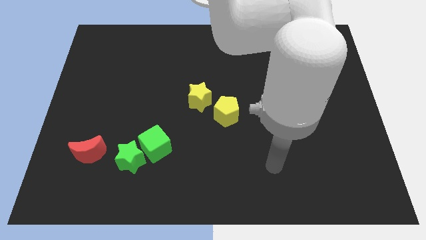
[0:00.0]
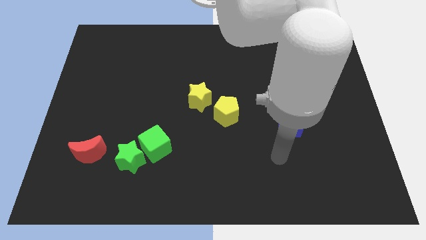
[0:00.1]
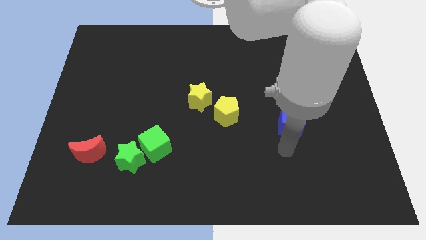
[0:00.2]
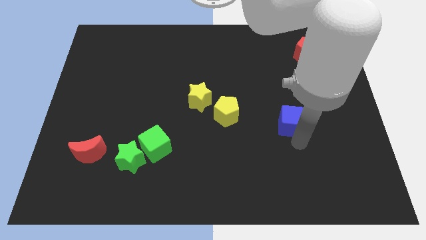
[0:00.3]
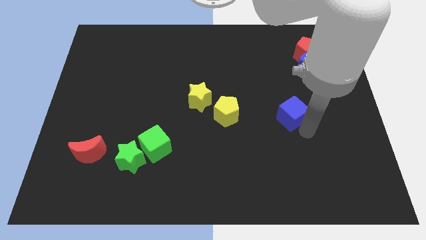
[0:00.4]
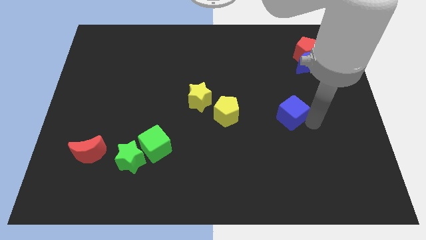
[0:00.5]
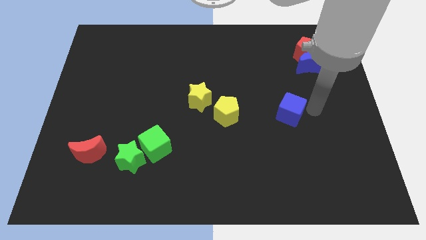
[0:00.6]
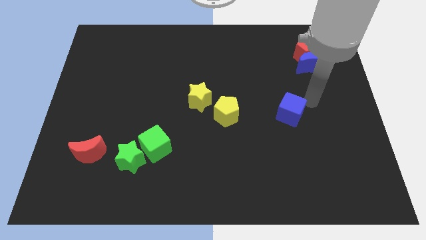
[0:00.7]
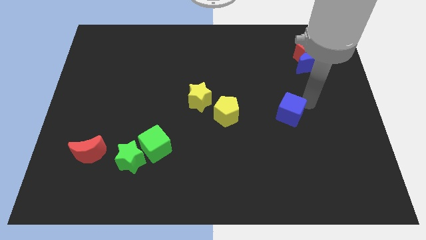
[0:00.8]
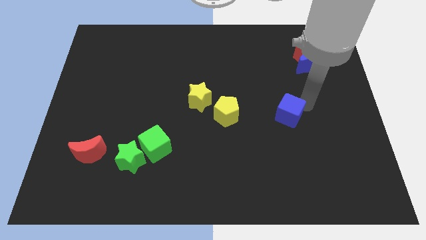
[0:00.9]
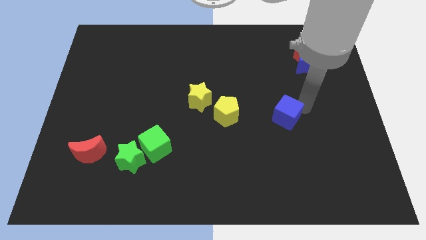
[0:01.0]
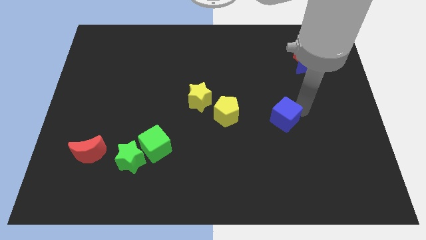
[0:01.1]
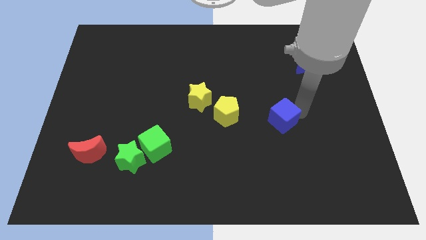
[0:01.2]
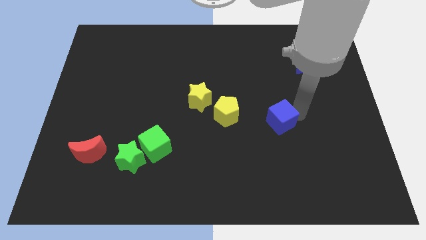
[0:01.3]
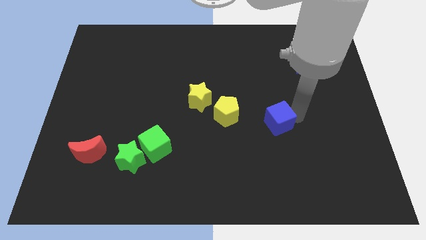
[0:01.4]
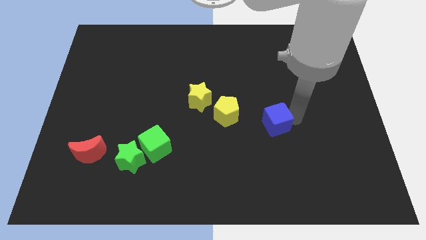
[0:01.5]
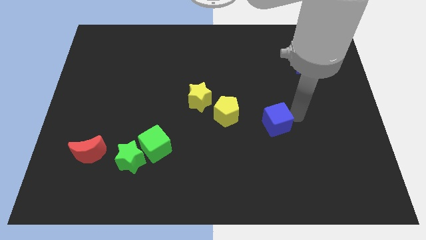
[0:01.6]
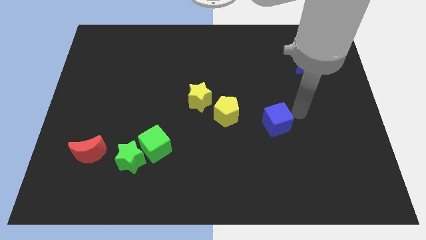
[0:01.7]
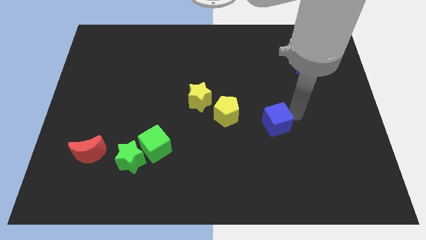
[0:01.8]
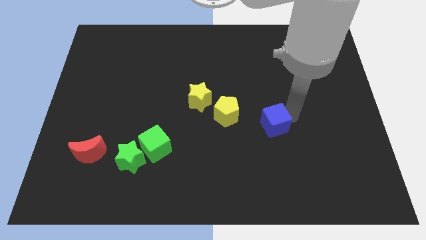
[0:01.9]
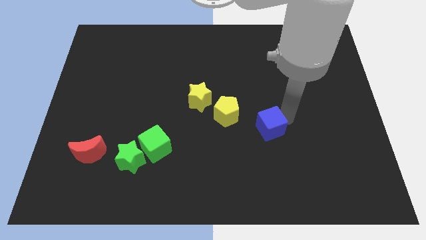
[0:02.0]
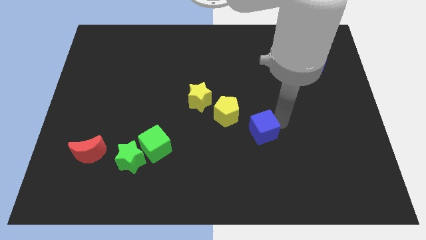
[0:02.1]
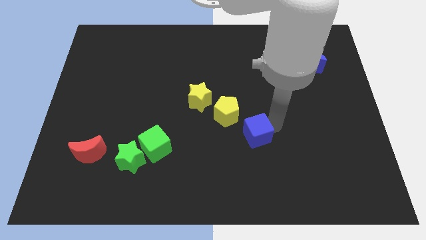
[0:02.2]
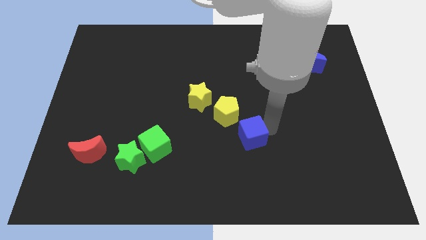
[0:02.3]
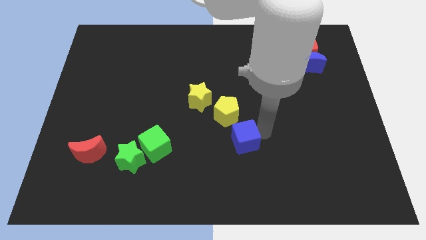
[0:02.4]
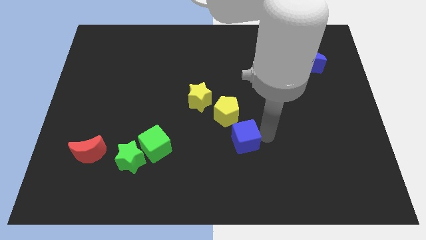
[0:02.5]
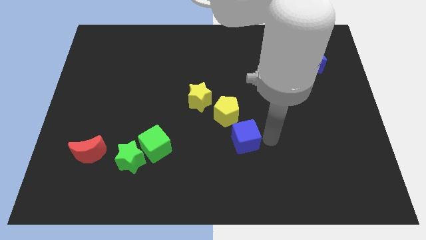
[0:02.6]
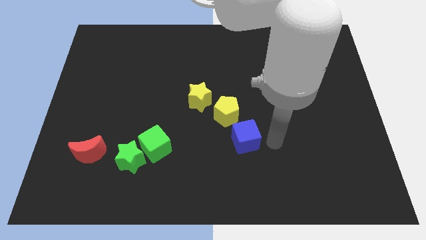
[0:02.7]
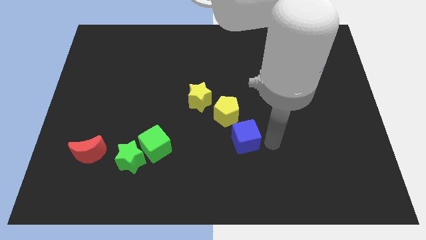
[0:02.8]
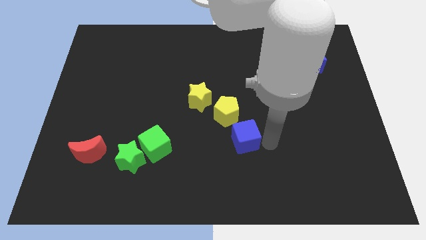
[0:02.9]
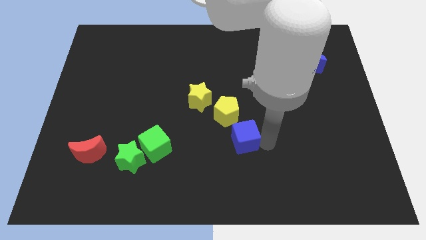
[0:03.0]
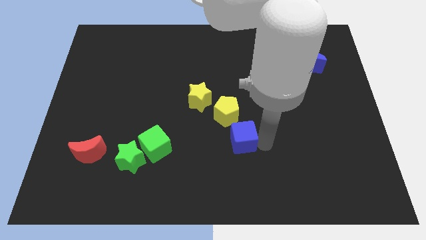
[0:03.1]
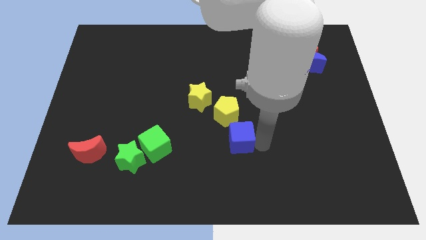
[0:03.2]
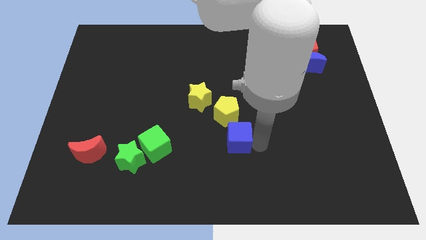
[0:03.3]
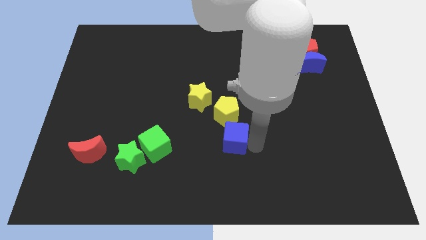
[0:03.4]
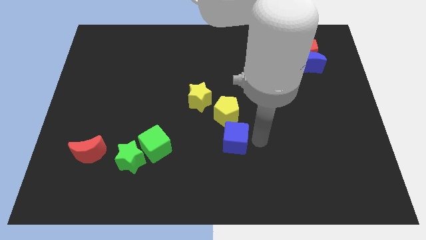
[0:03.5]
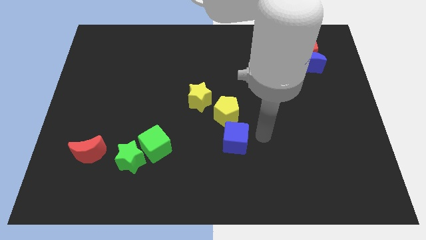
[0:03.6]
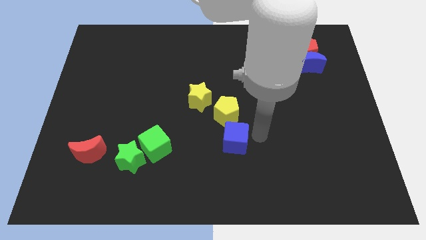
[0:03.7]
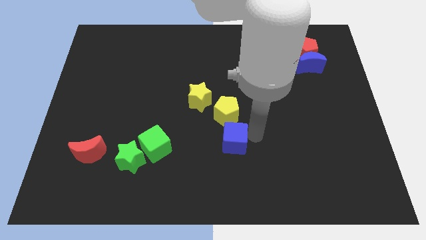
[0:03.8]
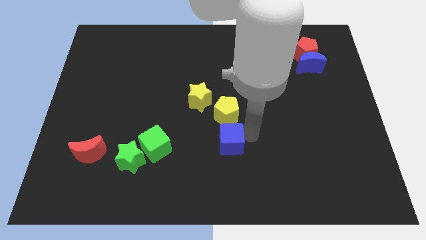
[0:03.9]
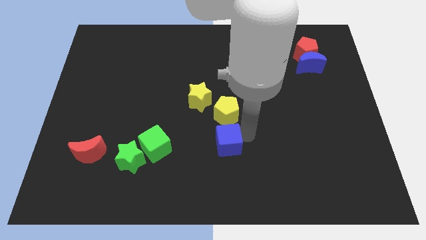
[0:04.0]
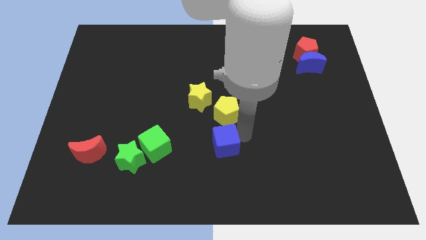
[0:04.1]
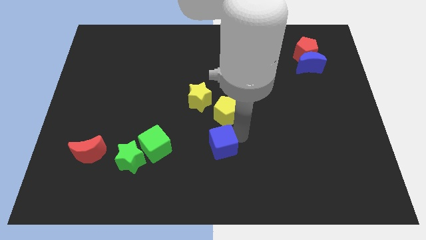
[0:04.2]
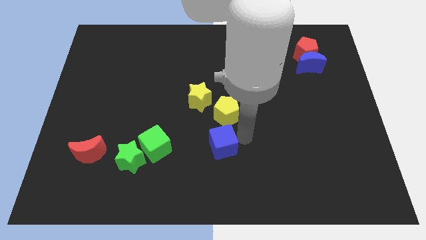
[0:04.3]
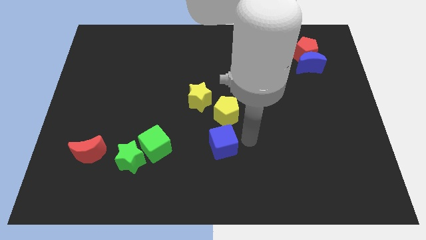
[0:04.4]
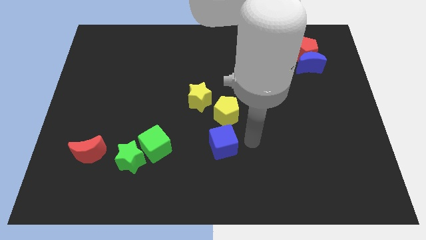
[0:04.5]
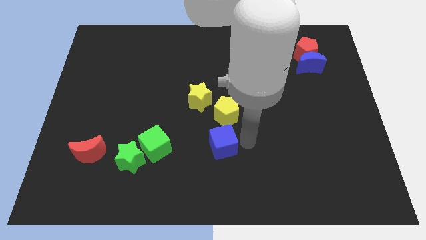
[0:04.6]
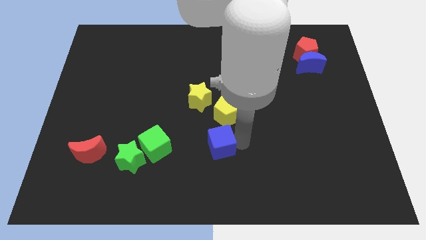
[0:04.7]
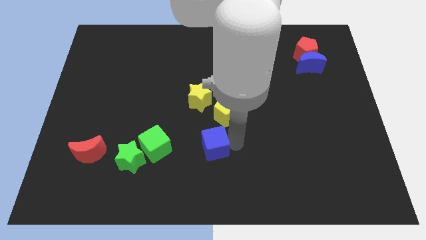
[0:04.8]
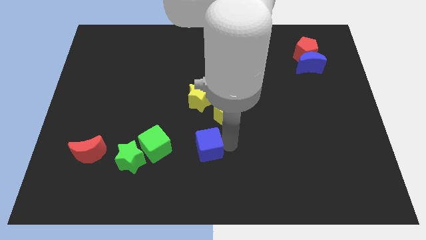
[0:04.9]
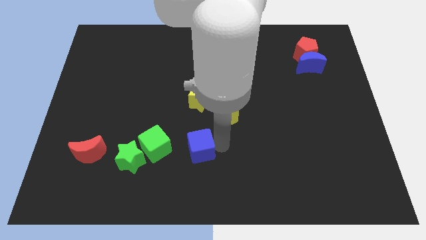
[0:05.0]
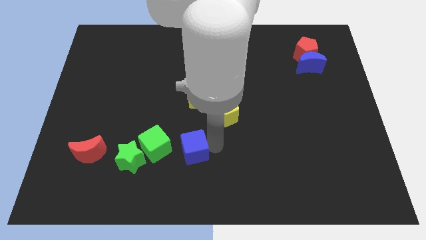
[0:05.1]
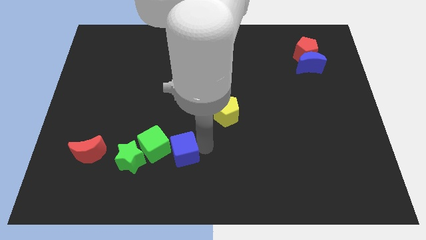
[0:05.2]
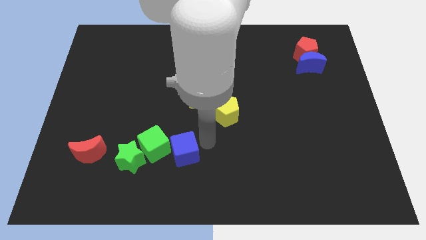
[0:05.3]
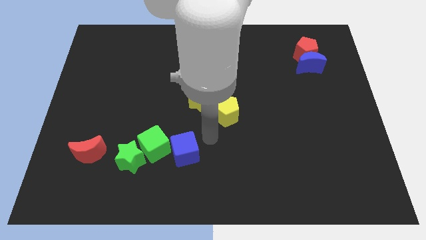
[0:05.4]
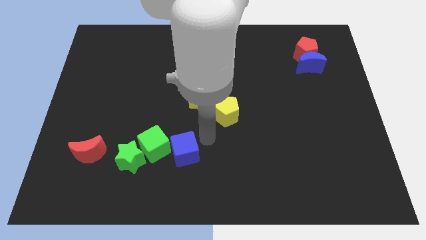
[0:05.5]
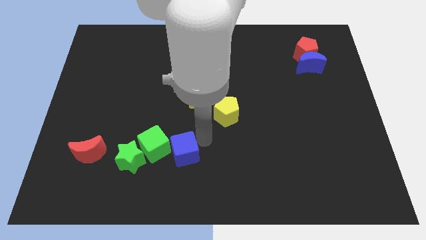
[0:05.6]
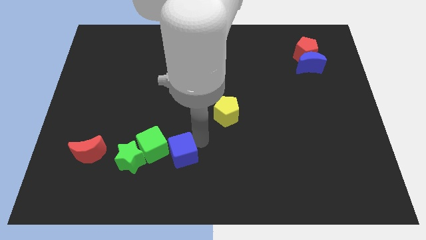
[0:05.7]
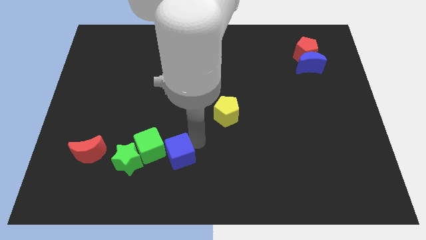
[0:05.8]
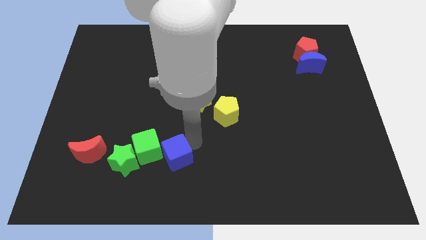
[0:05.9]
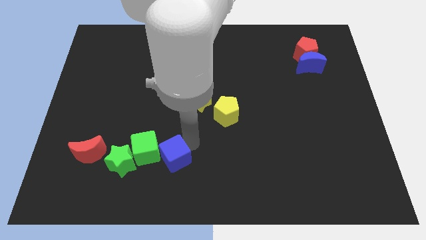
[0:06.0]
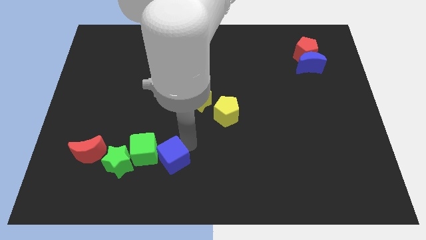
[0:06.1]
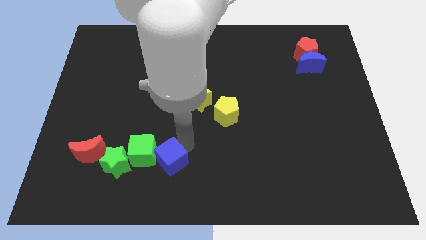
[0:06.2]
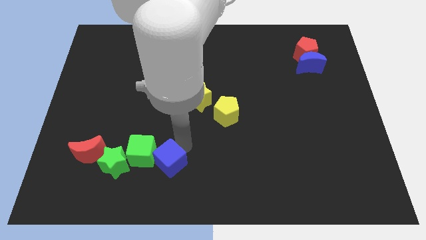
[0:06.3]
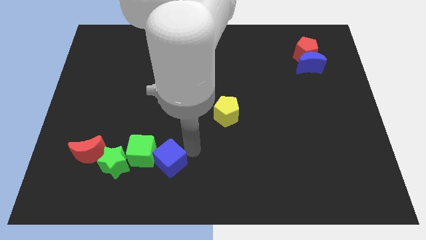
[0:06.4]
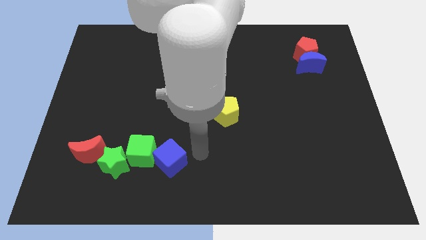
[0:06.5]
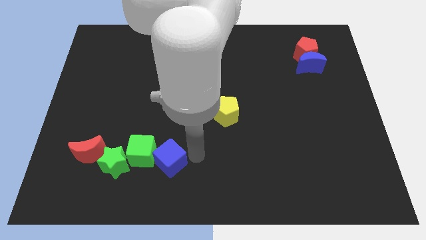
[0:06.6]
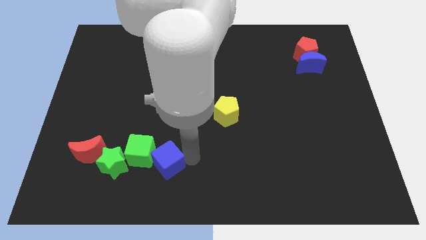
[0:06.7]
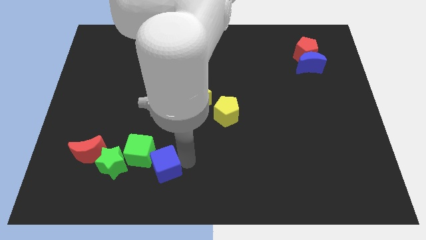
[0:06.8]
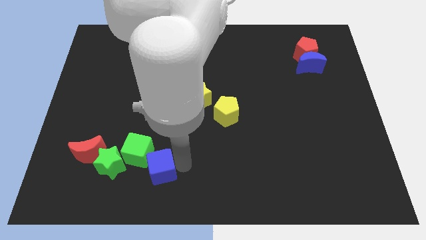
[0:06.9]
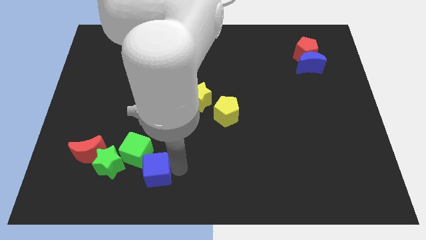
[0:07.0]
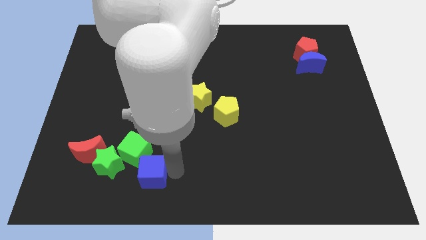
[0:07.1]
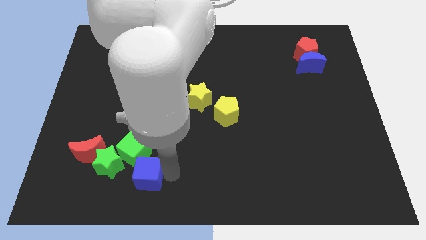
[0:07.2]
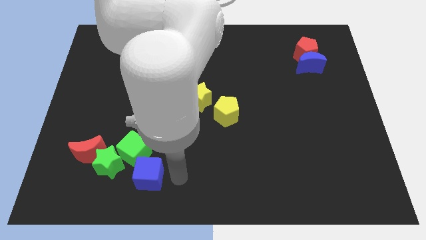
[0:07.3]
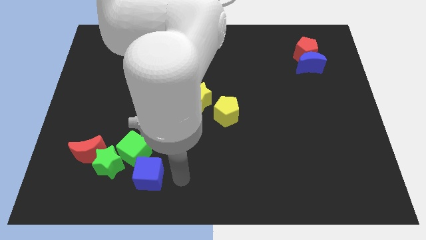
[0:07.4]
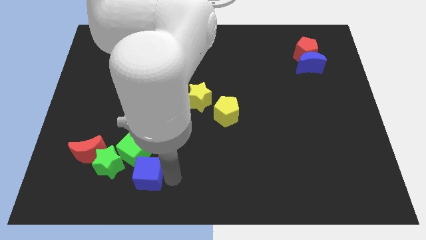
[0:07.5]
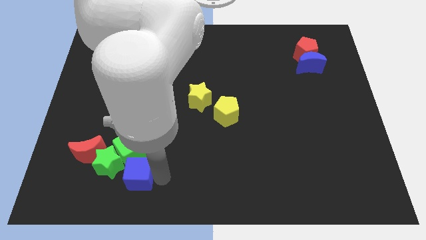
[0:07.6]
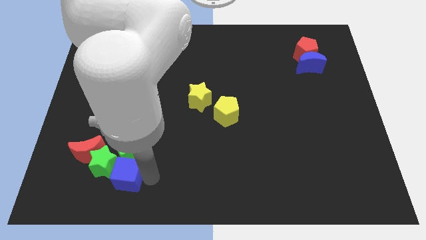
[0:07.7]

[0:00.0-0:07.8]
push the blue cube diagonally down and to the left of the green cube
